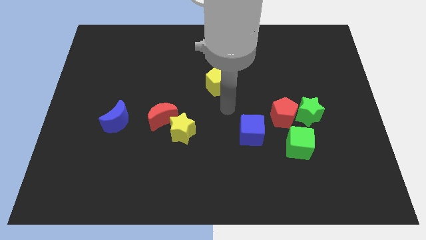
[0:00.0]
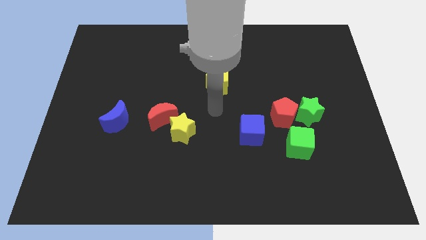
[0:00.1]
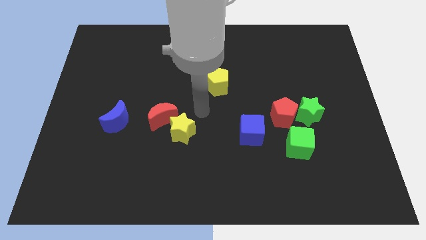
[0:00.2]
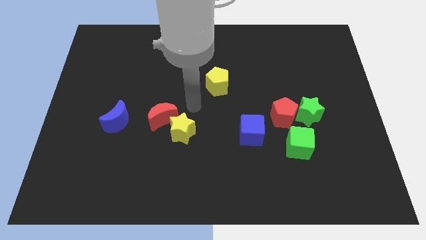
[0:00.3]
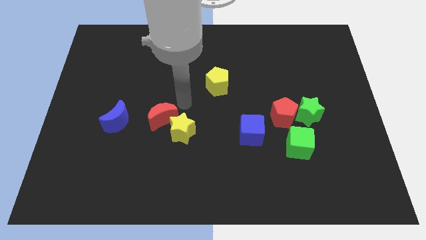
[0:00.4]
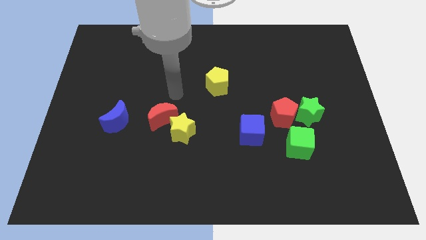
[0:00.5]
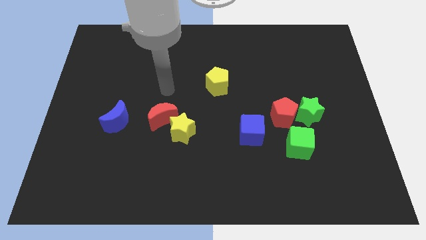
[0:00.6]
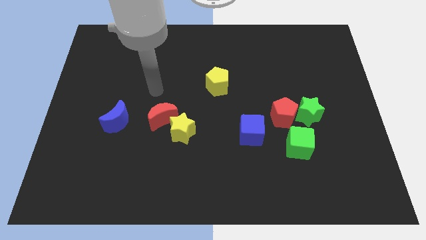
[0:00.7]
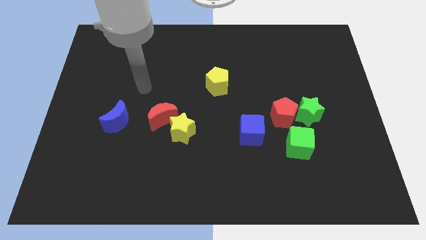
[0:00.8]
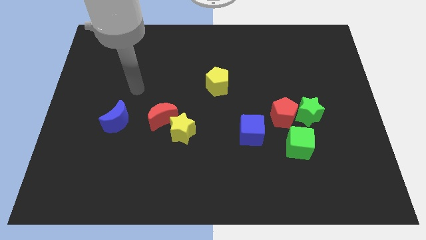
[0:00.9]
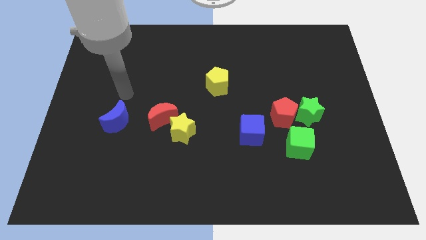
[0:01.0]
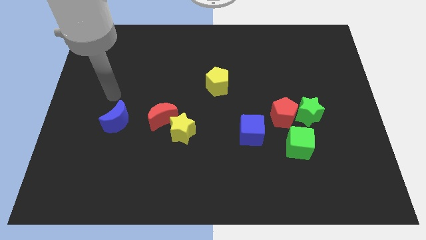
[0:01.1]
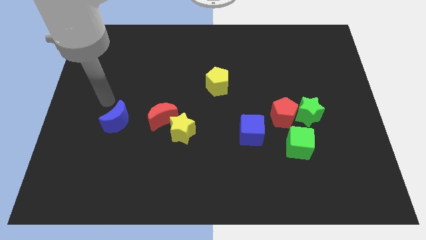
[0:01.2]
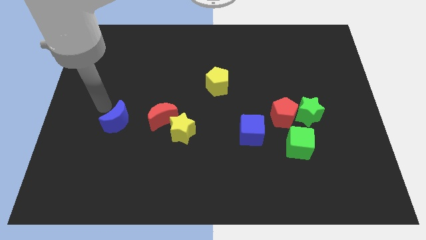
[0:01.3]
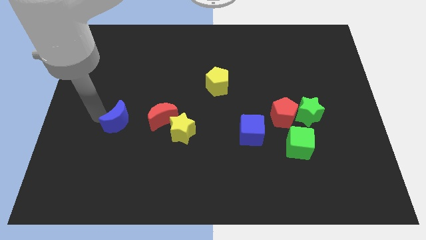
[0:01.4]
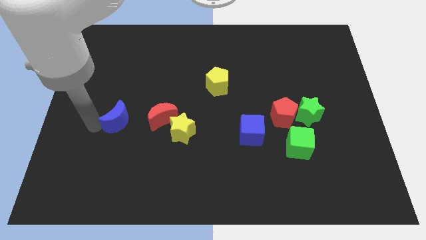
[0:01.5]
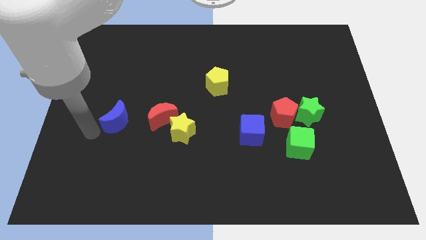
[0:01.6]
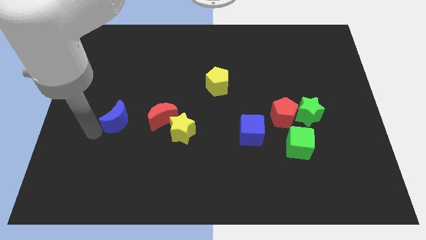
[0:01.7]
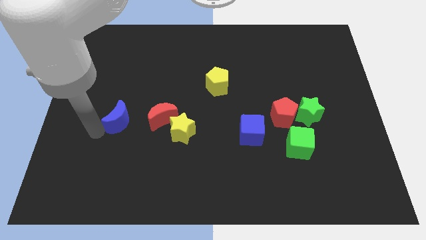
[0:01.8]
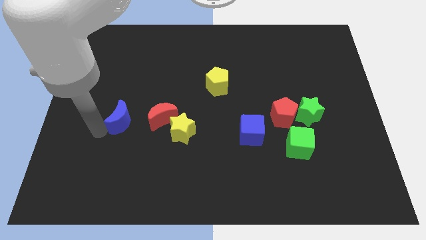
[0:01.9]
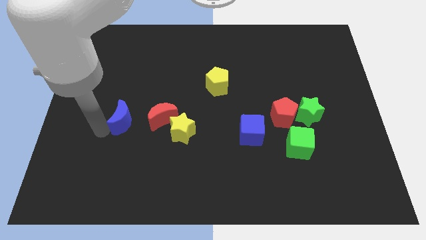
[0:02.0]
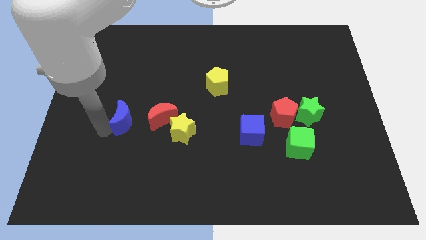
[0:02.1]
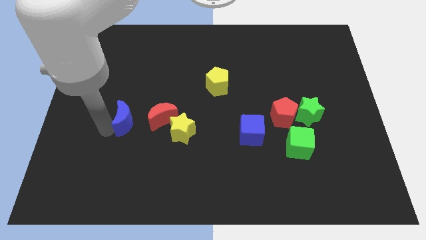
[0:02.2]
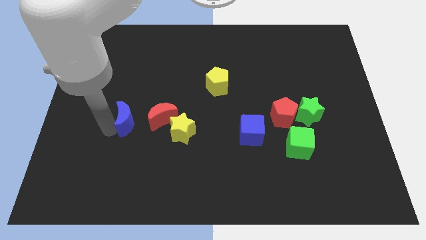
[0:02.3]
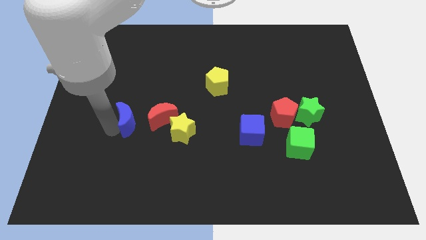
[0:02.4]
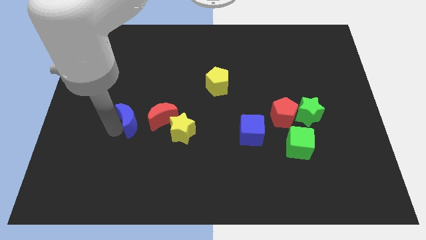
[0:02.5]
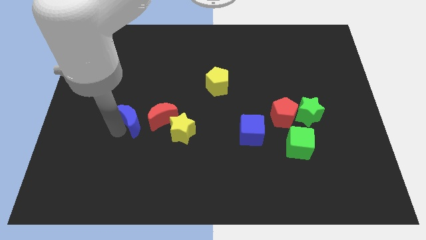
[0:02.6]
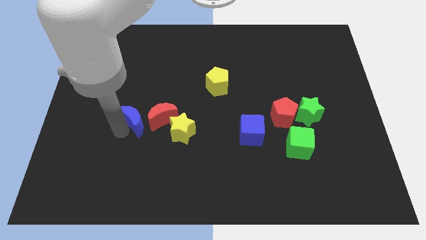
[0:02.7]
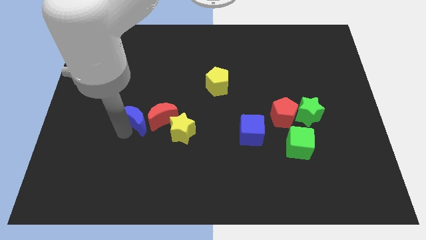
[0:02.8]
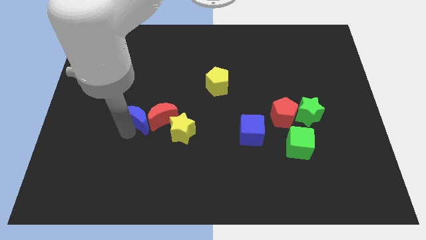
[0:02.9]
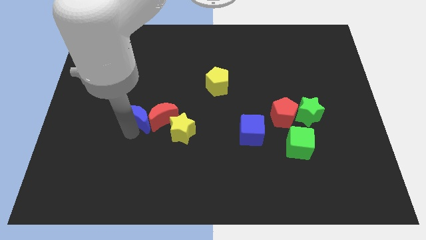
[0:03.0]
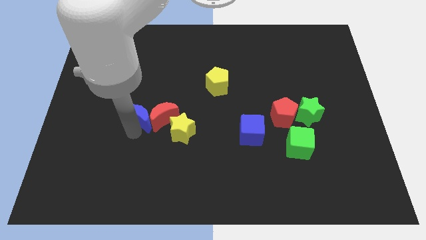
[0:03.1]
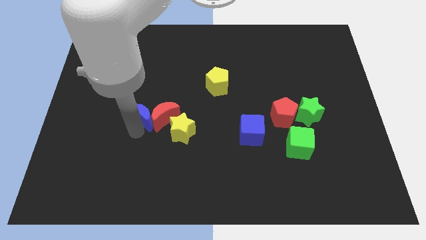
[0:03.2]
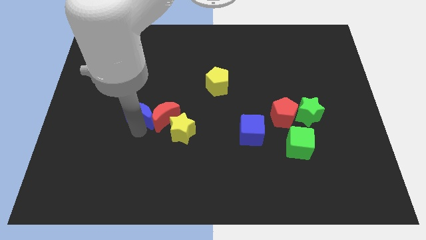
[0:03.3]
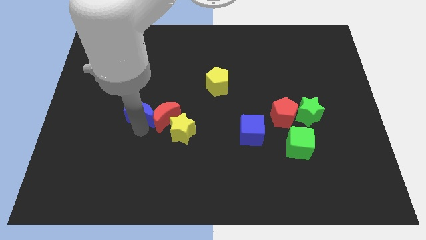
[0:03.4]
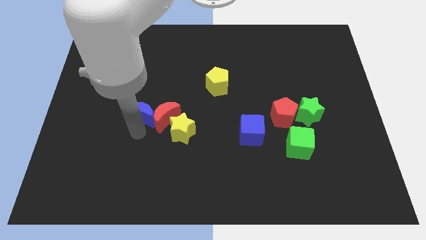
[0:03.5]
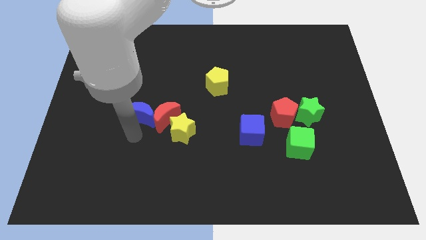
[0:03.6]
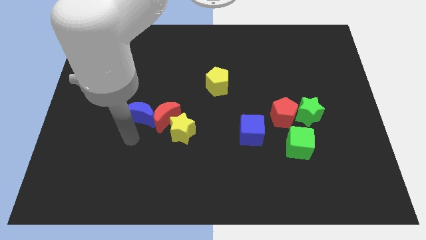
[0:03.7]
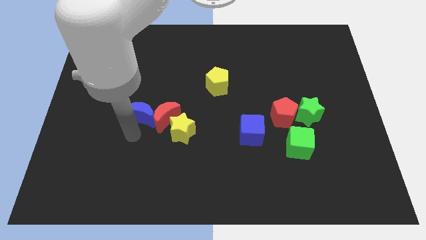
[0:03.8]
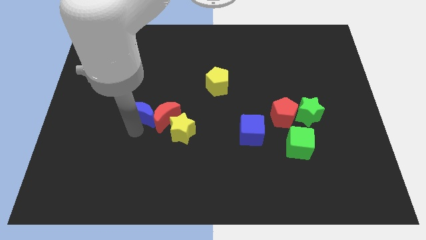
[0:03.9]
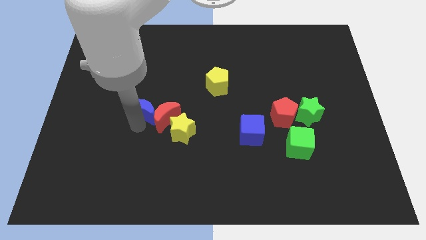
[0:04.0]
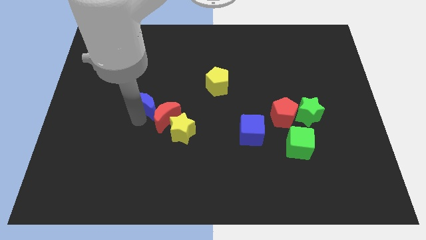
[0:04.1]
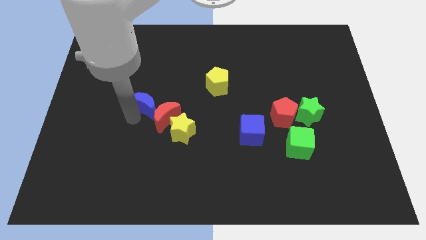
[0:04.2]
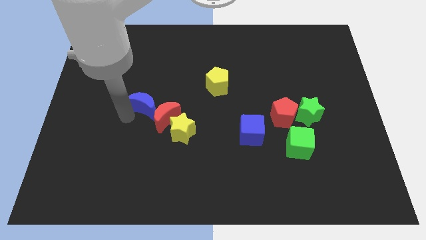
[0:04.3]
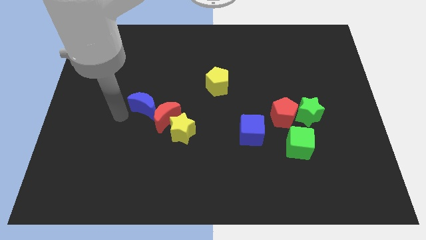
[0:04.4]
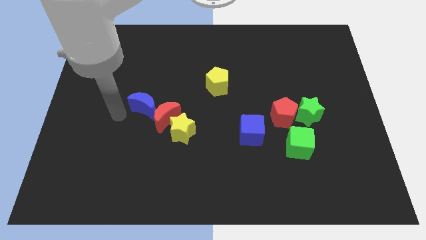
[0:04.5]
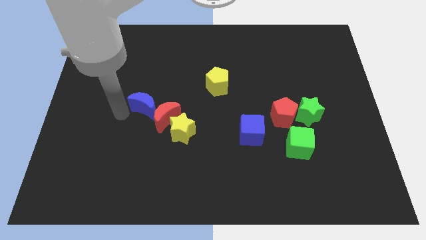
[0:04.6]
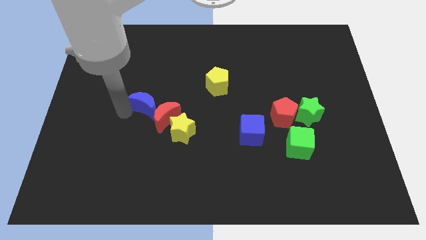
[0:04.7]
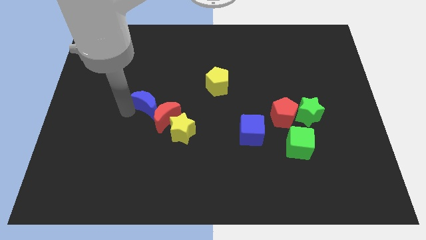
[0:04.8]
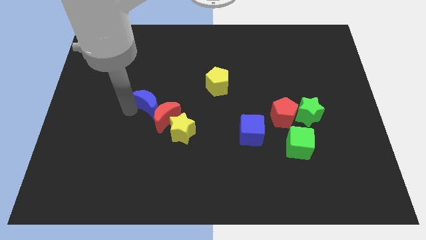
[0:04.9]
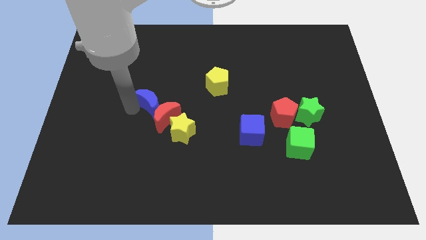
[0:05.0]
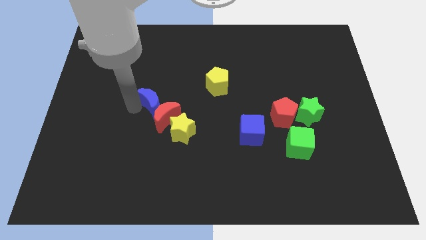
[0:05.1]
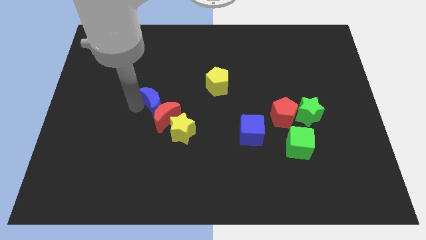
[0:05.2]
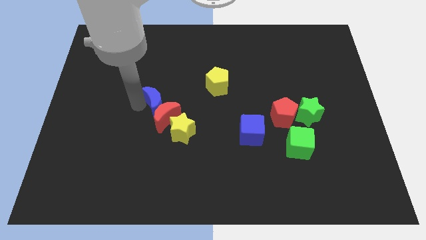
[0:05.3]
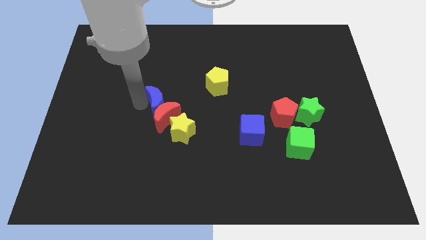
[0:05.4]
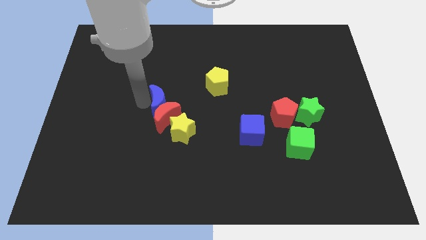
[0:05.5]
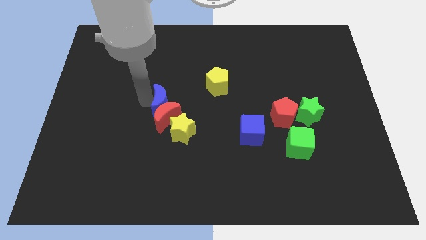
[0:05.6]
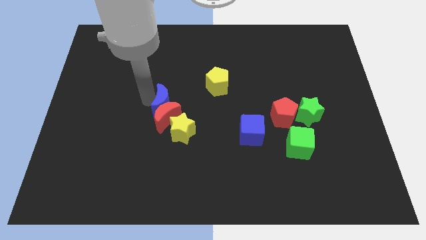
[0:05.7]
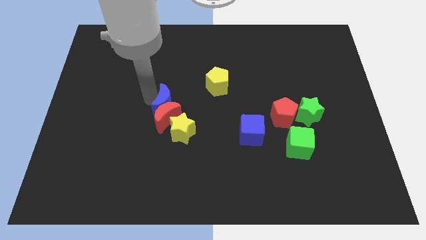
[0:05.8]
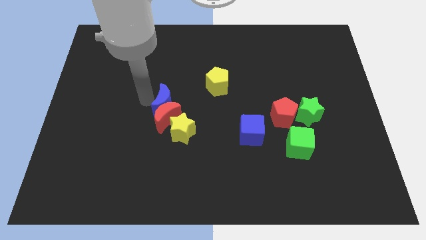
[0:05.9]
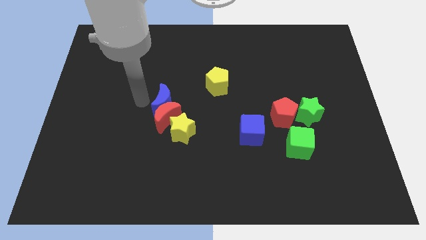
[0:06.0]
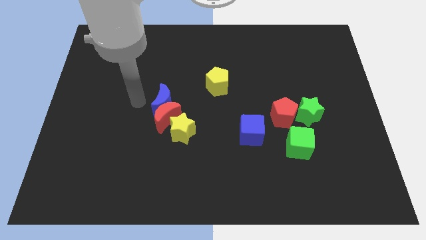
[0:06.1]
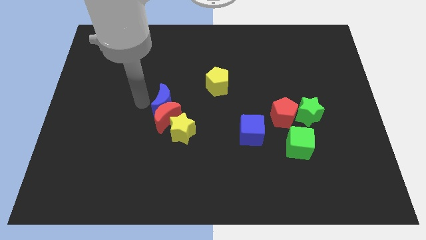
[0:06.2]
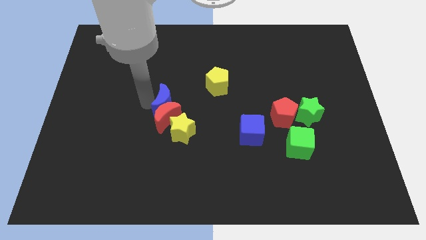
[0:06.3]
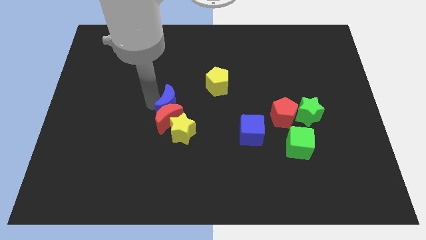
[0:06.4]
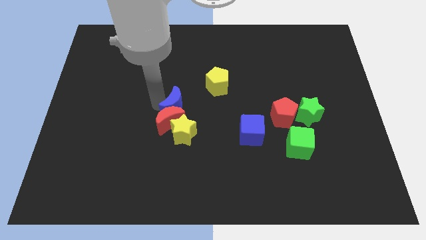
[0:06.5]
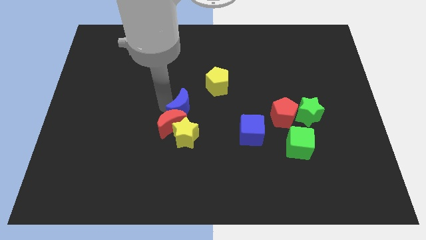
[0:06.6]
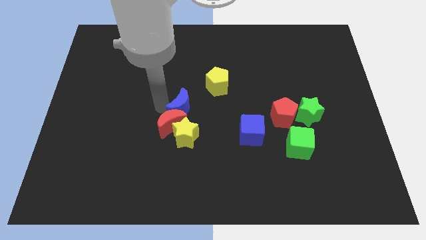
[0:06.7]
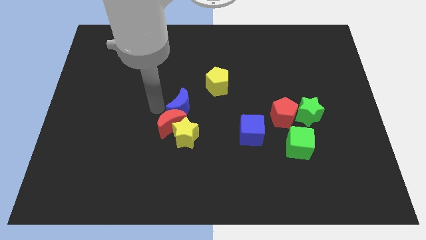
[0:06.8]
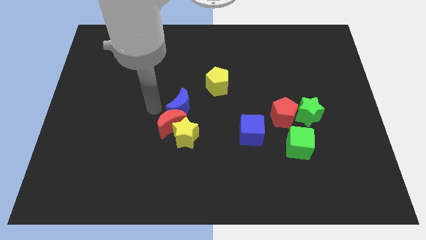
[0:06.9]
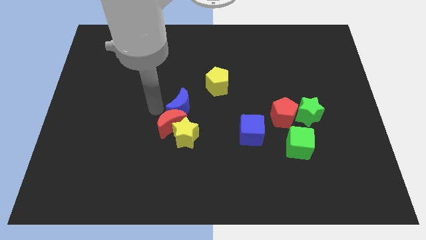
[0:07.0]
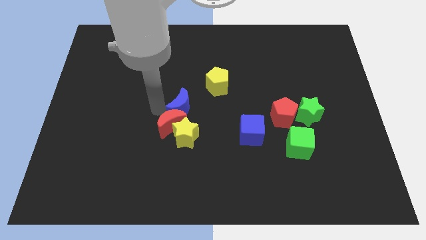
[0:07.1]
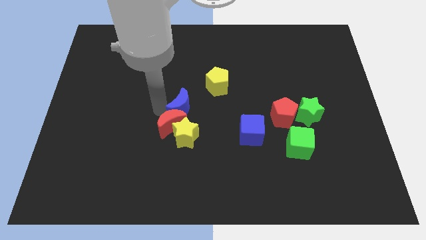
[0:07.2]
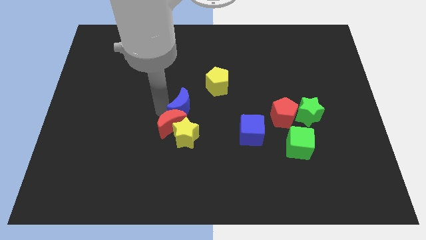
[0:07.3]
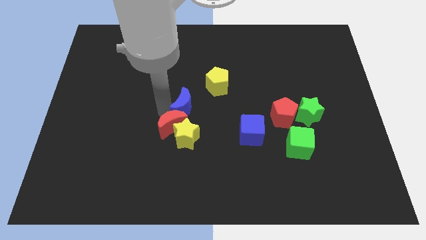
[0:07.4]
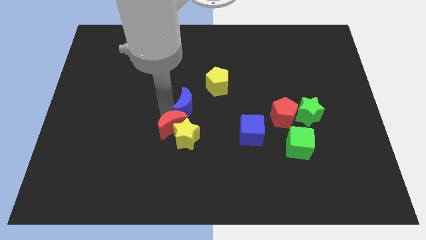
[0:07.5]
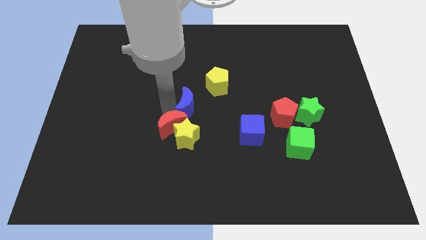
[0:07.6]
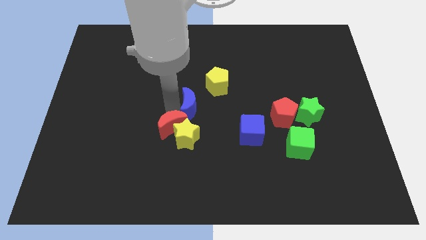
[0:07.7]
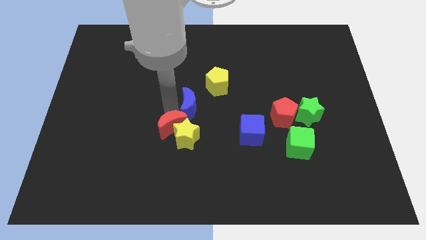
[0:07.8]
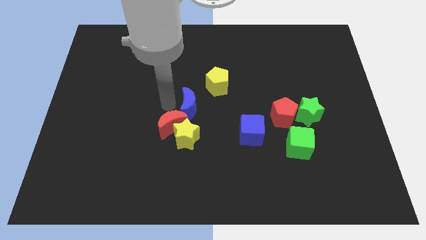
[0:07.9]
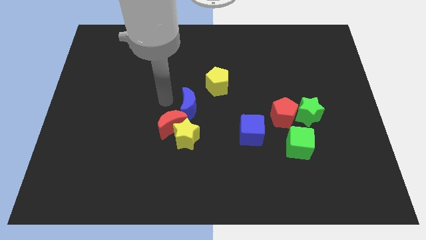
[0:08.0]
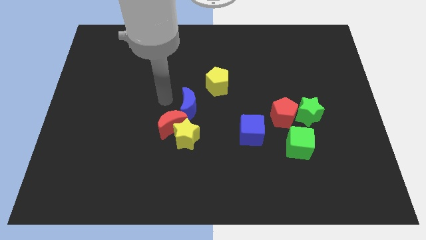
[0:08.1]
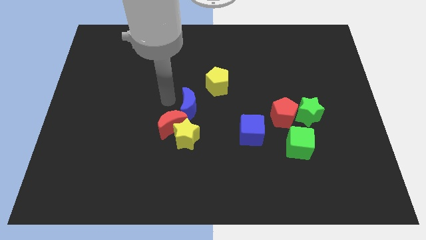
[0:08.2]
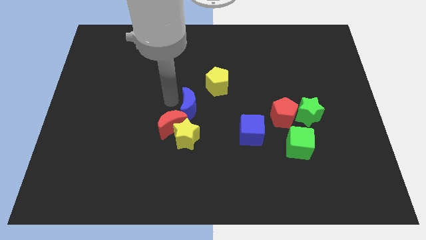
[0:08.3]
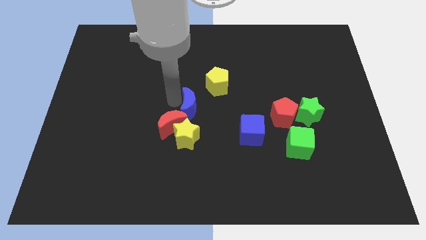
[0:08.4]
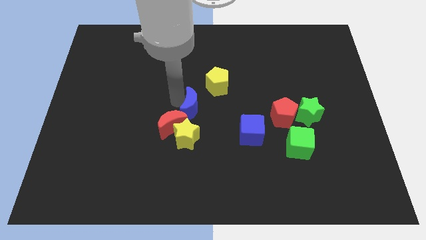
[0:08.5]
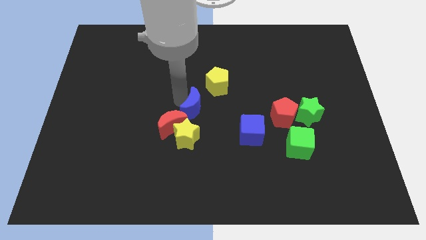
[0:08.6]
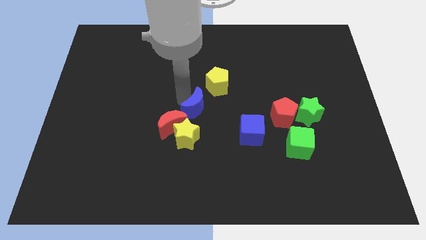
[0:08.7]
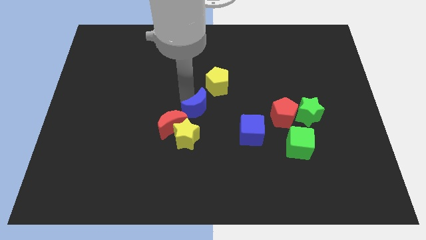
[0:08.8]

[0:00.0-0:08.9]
push the blue moon below the yellow pentagon
